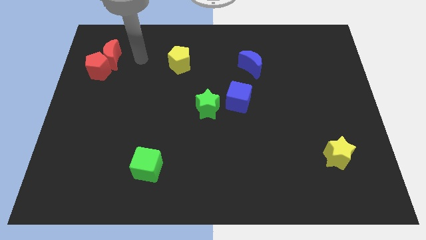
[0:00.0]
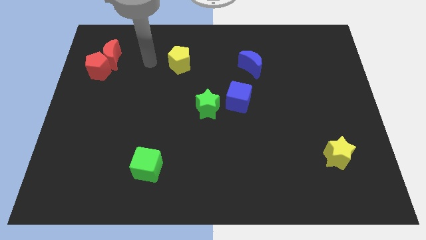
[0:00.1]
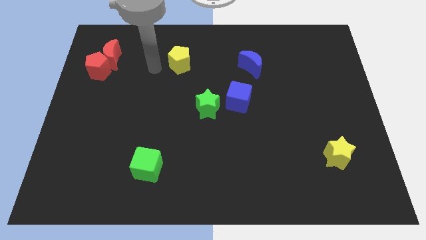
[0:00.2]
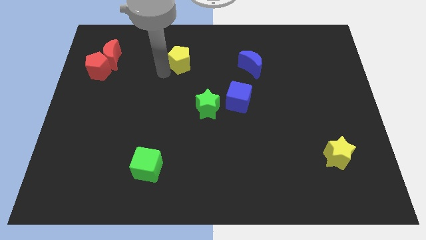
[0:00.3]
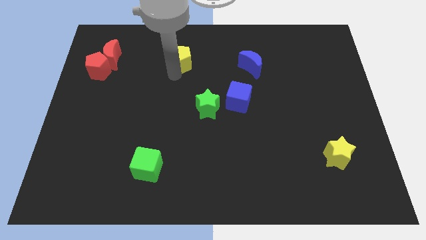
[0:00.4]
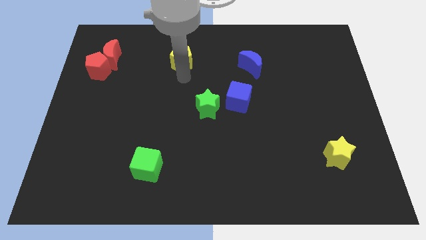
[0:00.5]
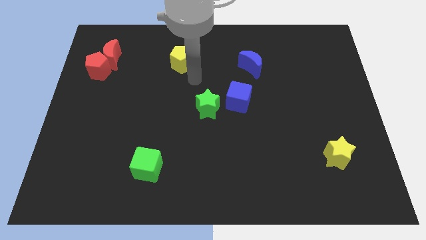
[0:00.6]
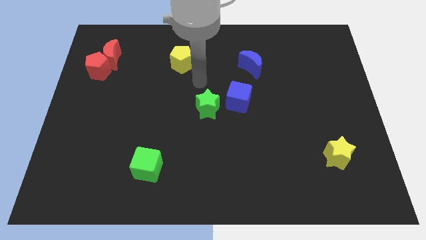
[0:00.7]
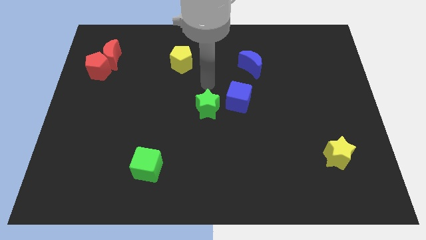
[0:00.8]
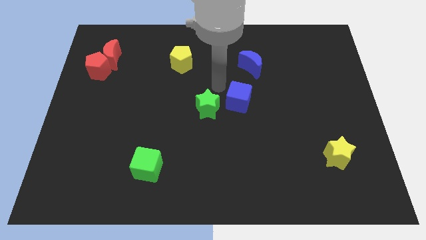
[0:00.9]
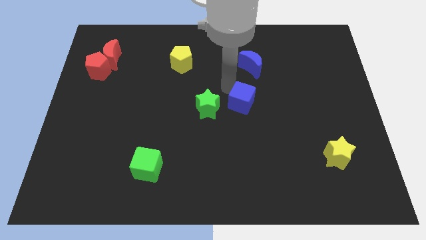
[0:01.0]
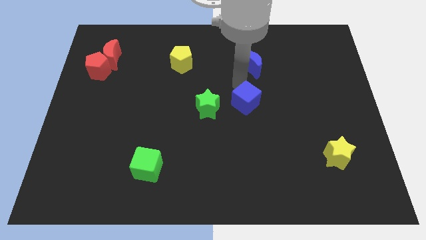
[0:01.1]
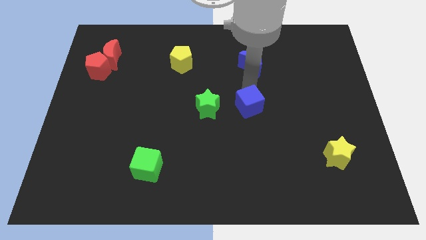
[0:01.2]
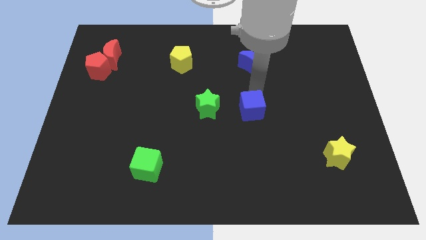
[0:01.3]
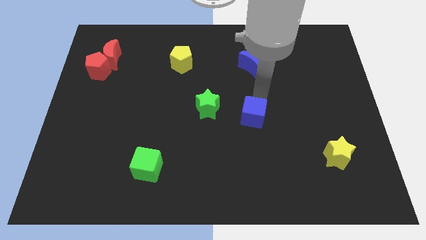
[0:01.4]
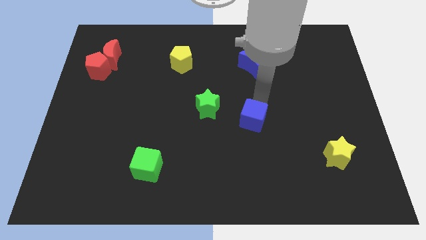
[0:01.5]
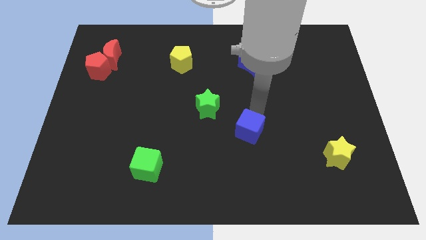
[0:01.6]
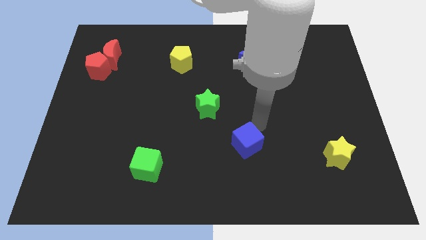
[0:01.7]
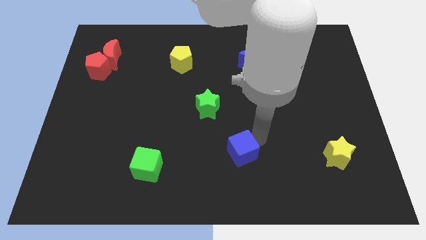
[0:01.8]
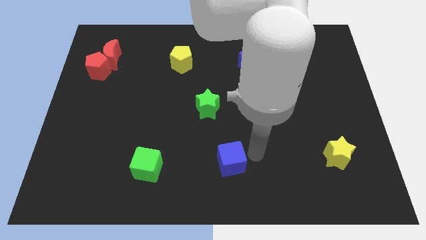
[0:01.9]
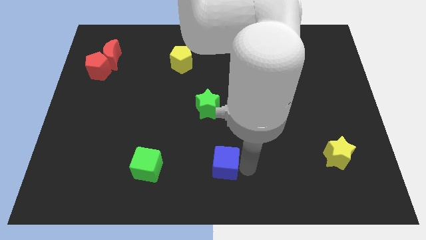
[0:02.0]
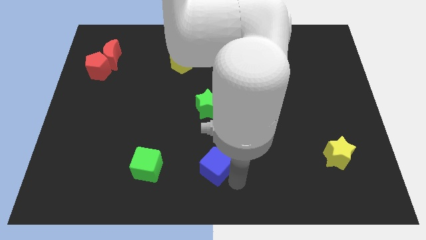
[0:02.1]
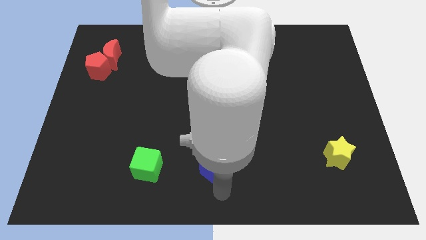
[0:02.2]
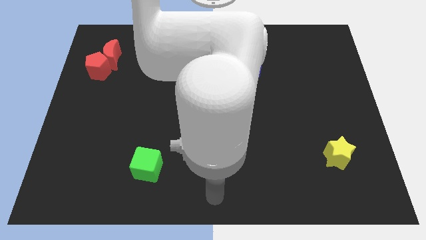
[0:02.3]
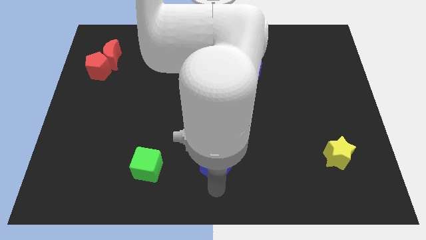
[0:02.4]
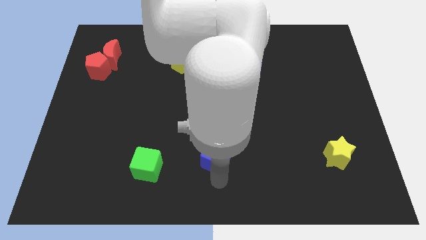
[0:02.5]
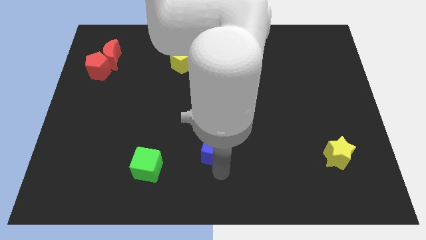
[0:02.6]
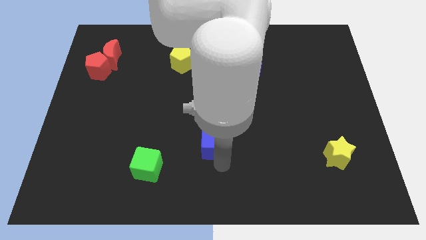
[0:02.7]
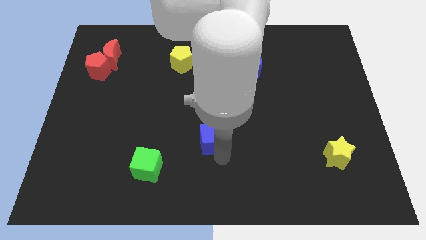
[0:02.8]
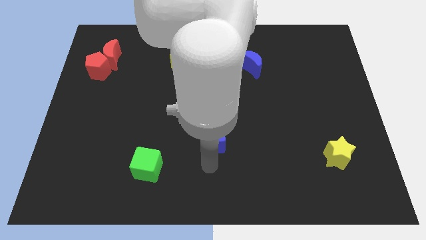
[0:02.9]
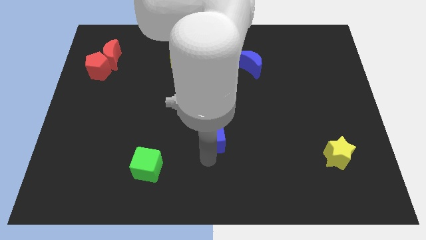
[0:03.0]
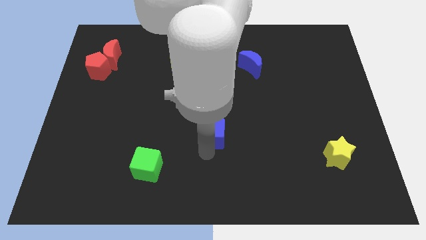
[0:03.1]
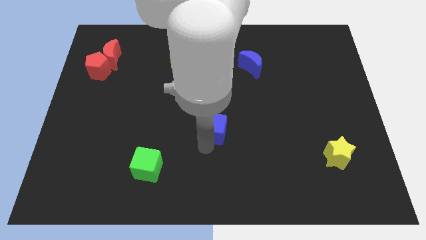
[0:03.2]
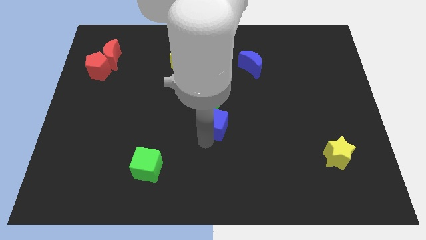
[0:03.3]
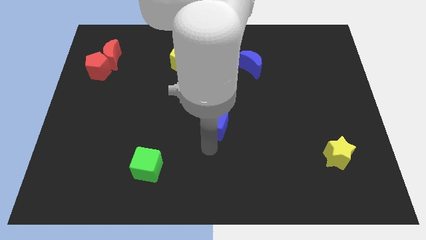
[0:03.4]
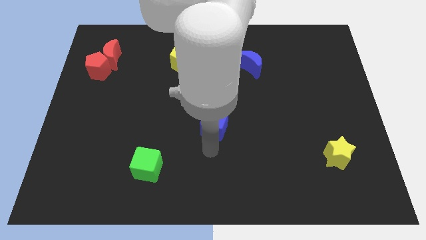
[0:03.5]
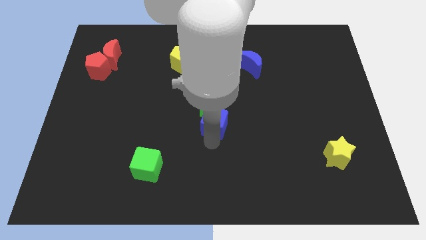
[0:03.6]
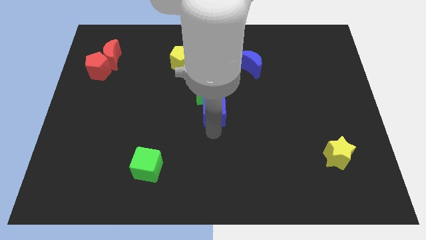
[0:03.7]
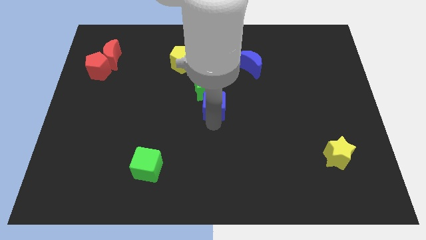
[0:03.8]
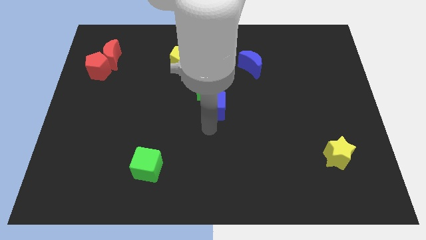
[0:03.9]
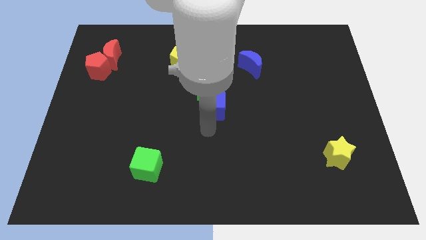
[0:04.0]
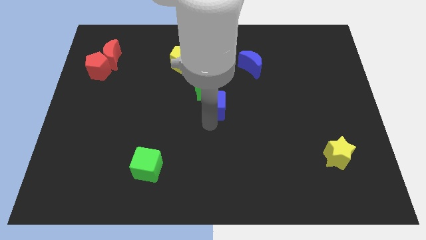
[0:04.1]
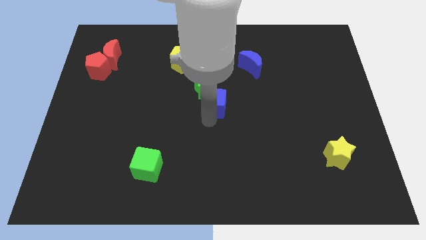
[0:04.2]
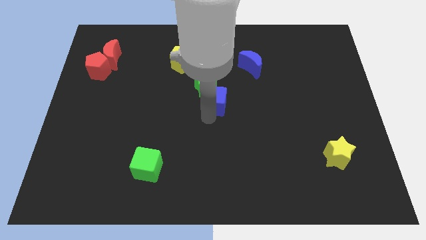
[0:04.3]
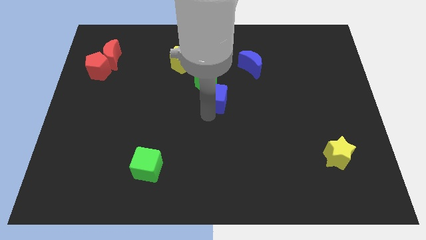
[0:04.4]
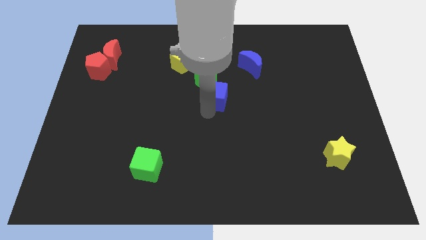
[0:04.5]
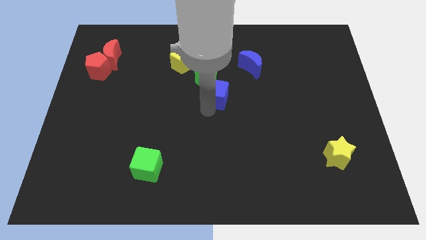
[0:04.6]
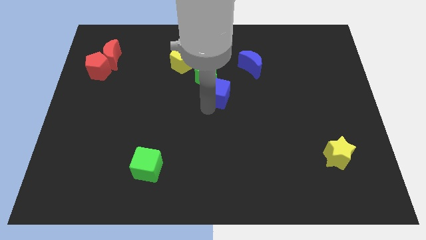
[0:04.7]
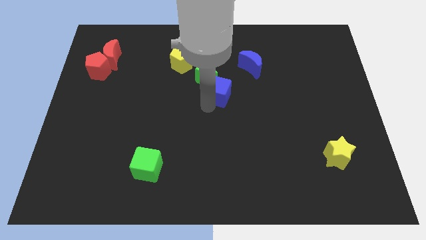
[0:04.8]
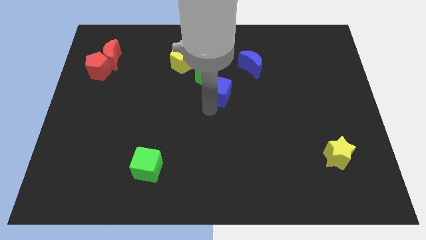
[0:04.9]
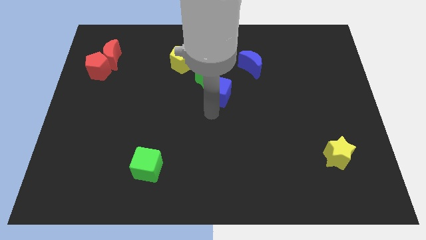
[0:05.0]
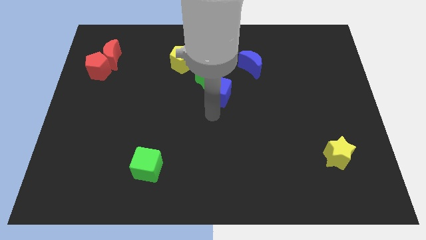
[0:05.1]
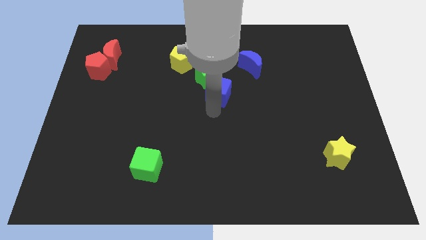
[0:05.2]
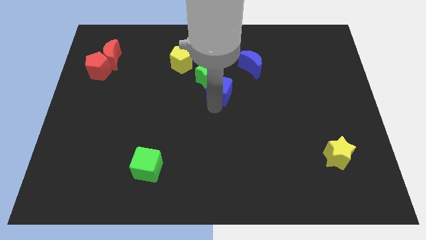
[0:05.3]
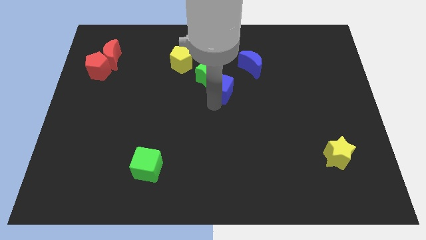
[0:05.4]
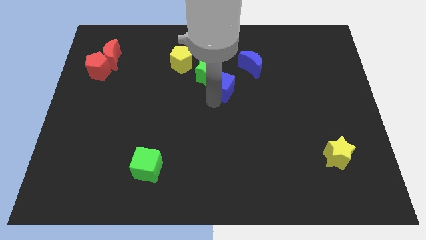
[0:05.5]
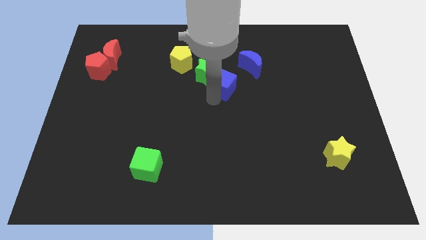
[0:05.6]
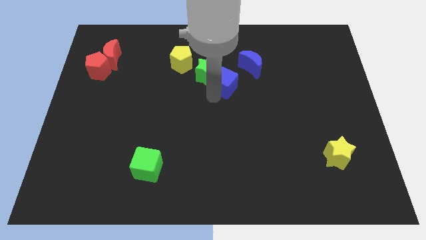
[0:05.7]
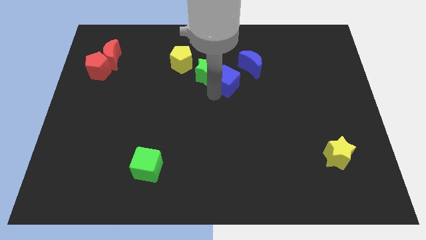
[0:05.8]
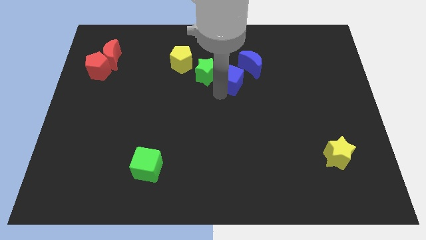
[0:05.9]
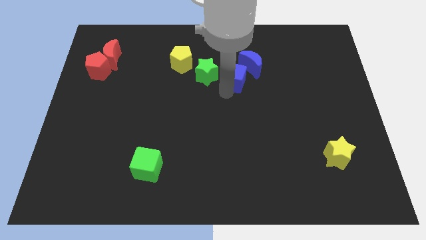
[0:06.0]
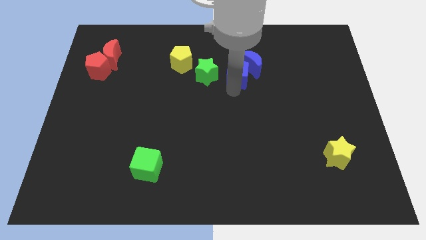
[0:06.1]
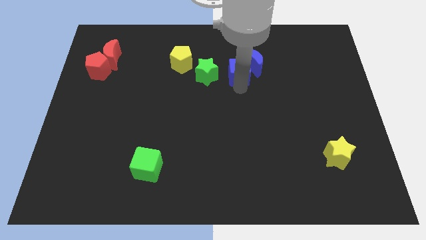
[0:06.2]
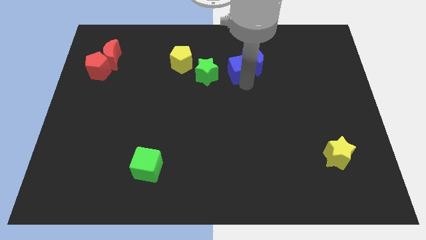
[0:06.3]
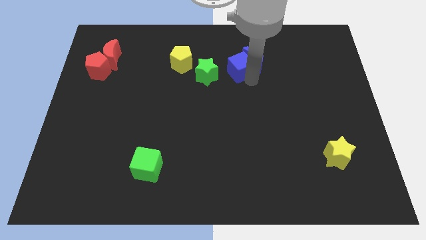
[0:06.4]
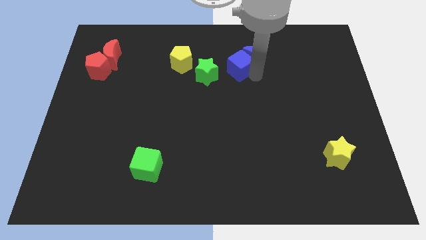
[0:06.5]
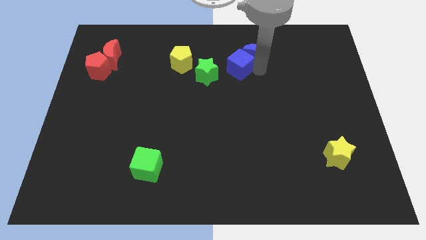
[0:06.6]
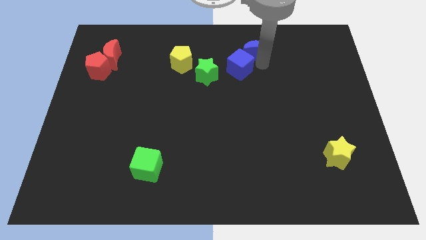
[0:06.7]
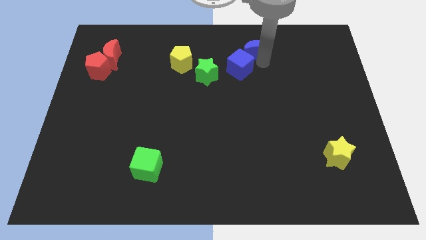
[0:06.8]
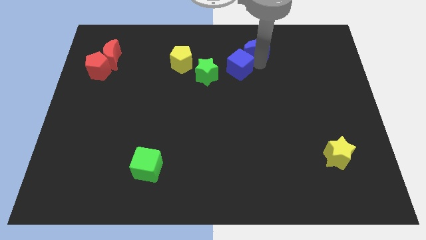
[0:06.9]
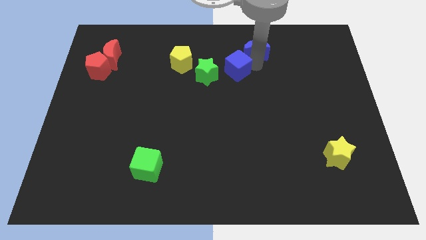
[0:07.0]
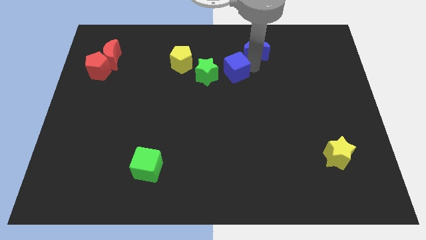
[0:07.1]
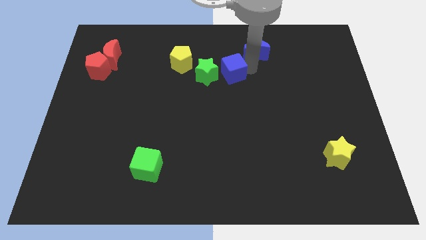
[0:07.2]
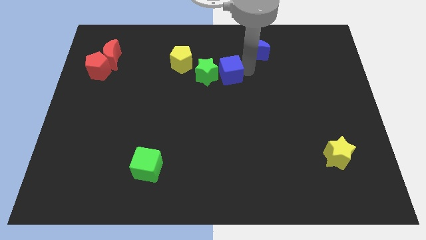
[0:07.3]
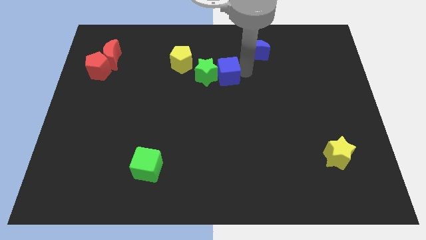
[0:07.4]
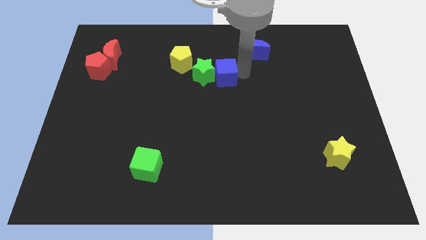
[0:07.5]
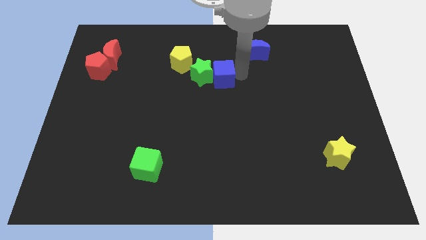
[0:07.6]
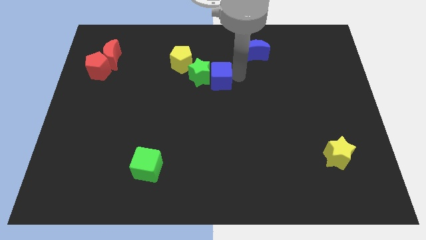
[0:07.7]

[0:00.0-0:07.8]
move the blue cube diagonally down and to the right of the yellow pentagon
